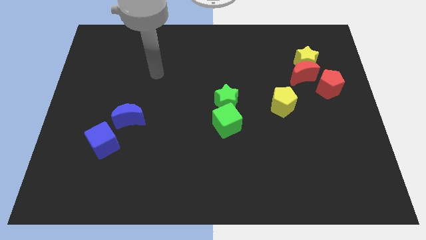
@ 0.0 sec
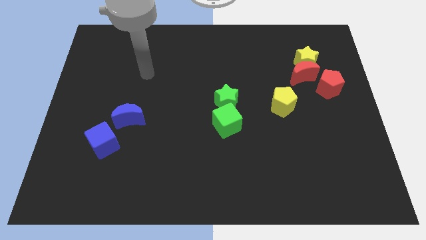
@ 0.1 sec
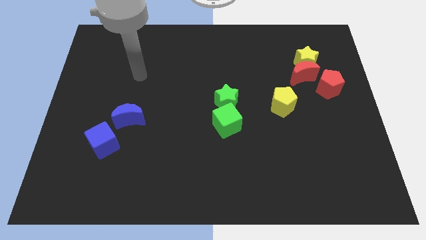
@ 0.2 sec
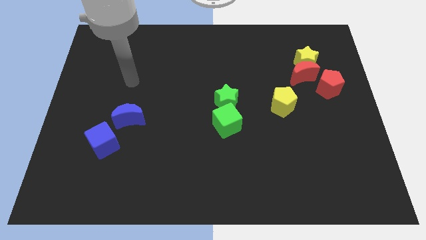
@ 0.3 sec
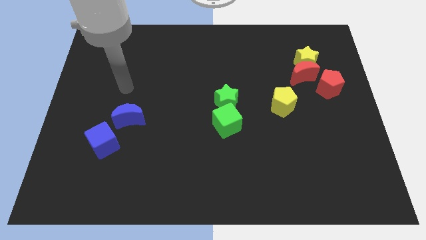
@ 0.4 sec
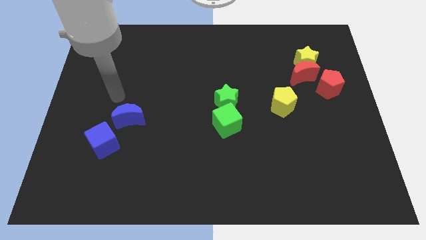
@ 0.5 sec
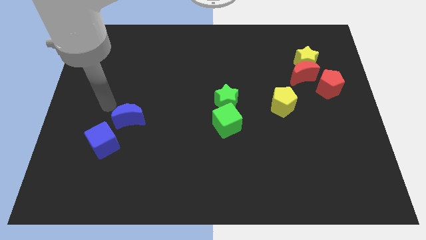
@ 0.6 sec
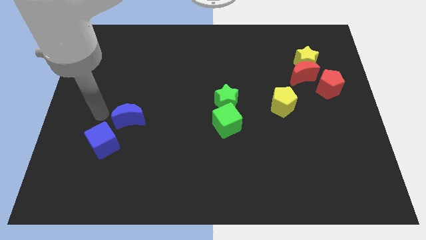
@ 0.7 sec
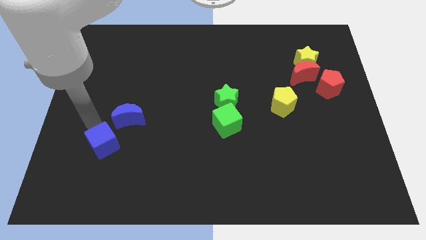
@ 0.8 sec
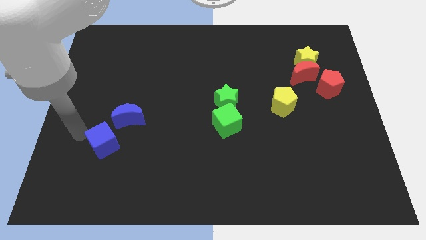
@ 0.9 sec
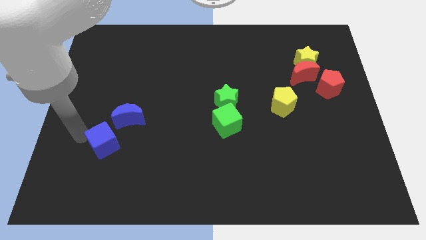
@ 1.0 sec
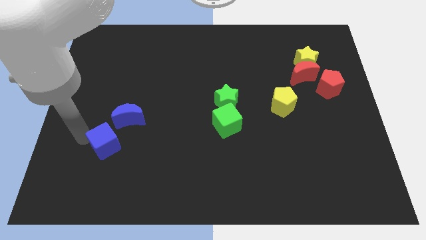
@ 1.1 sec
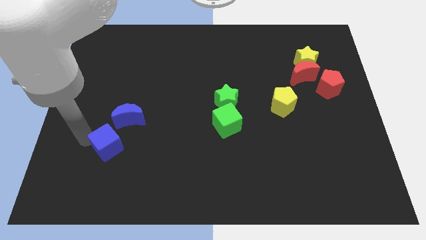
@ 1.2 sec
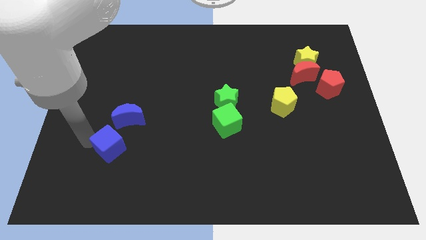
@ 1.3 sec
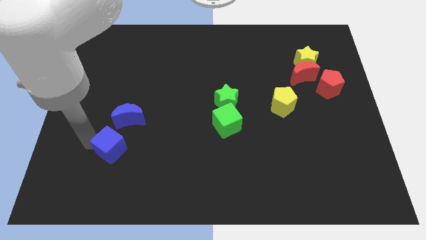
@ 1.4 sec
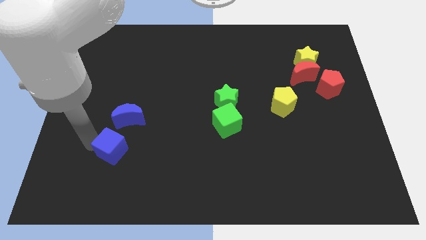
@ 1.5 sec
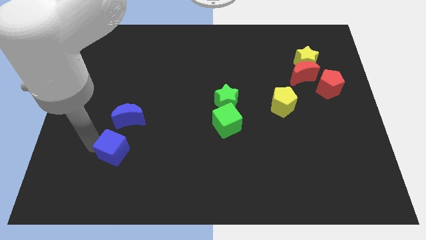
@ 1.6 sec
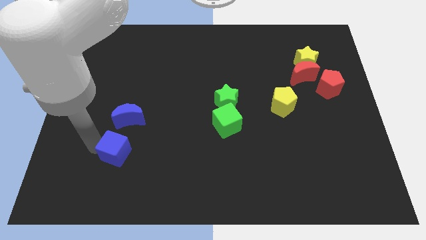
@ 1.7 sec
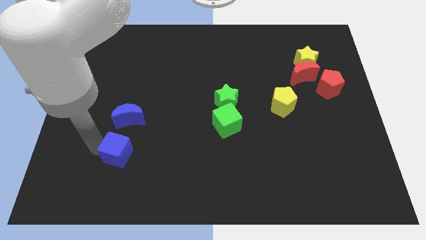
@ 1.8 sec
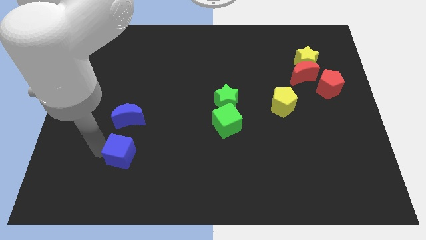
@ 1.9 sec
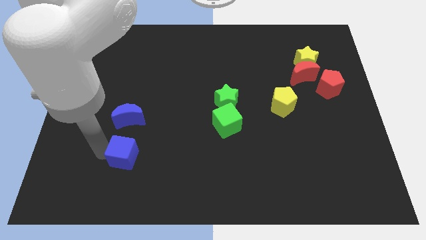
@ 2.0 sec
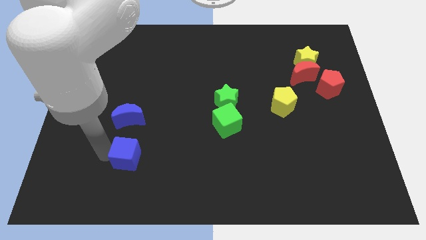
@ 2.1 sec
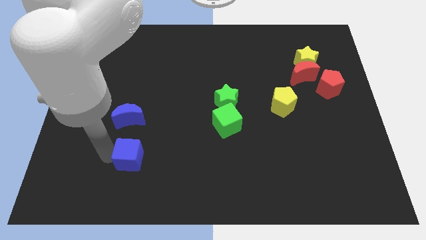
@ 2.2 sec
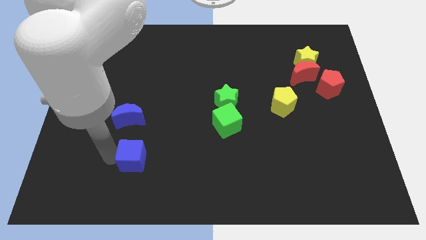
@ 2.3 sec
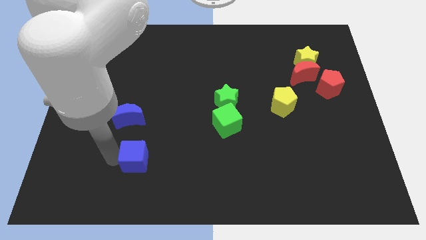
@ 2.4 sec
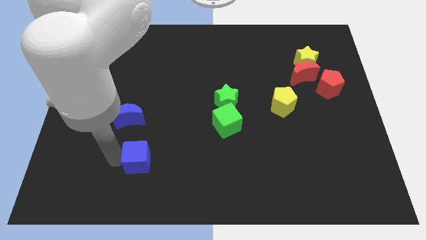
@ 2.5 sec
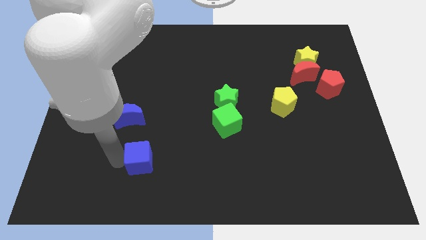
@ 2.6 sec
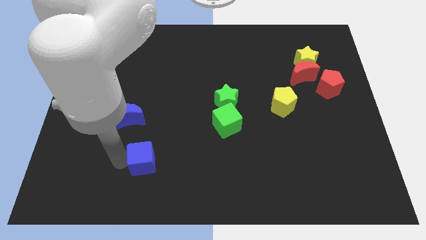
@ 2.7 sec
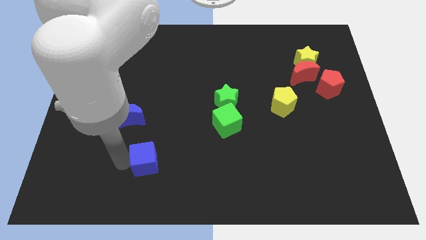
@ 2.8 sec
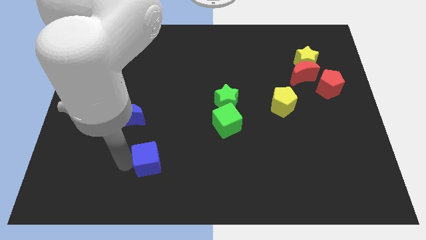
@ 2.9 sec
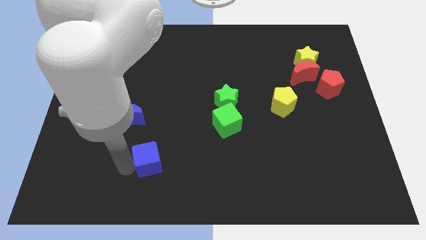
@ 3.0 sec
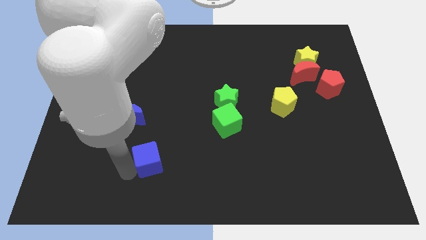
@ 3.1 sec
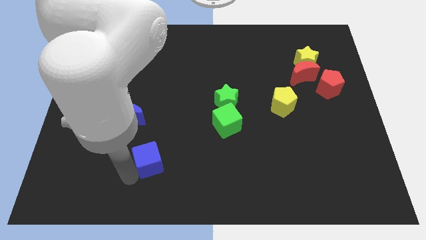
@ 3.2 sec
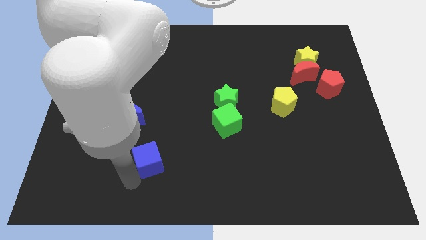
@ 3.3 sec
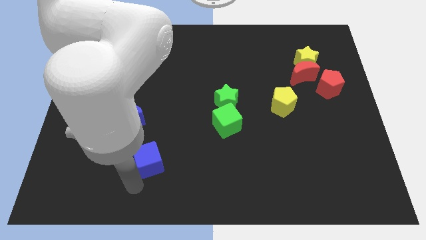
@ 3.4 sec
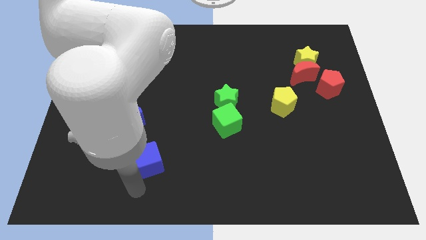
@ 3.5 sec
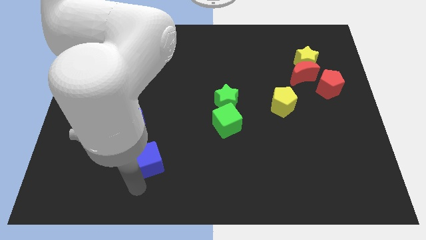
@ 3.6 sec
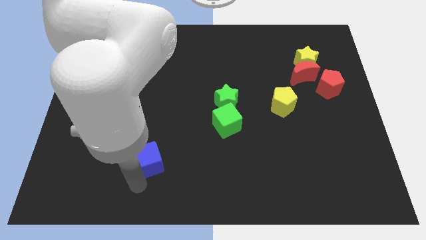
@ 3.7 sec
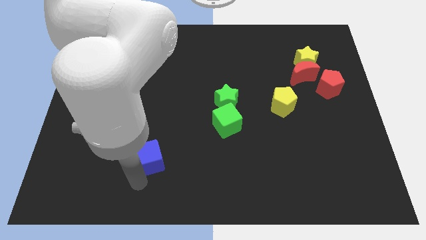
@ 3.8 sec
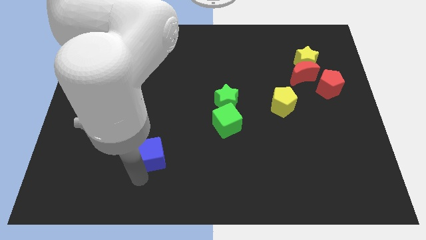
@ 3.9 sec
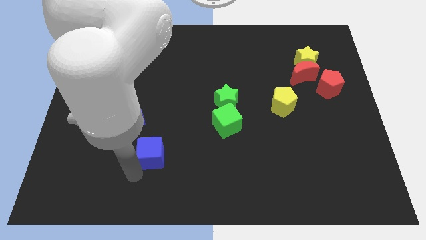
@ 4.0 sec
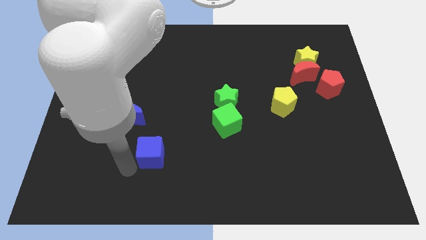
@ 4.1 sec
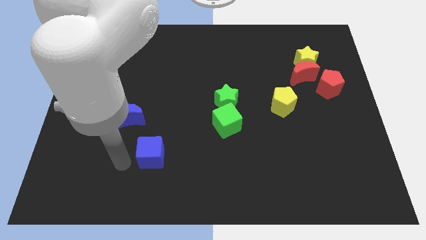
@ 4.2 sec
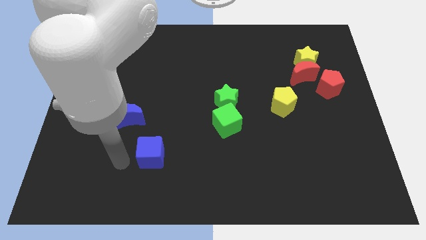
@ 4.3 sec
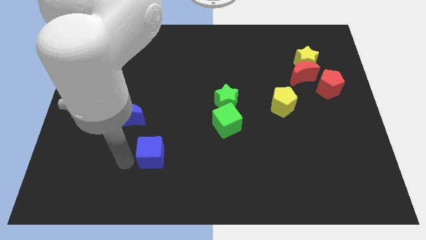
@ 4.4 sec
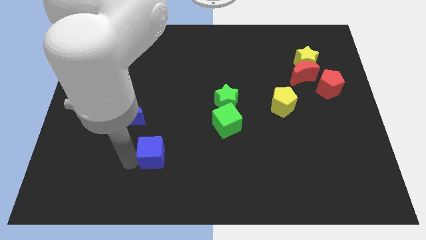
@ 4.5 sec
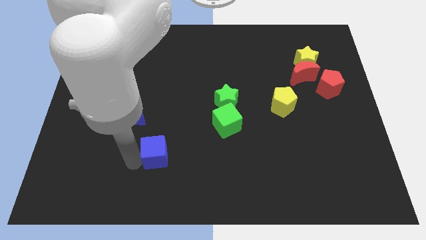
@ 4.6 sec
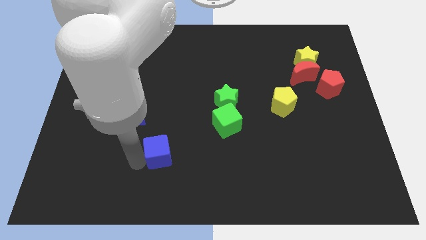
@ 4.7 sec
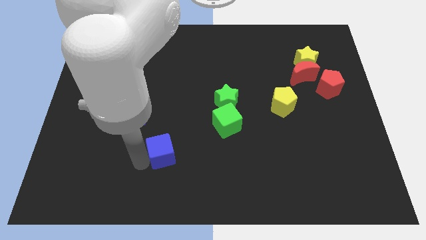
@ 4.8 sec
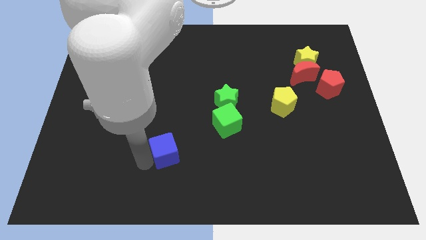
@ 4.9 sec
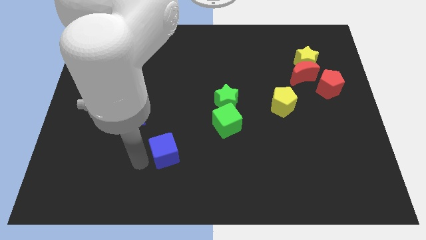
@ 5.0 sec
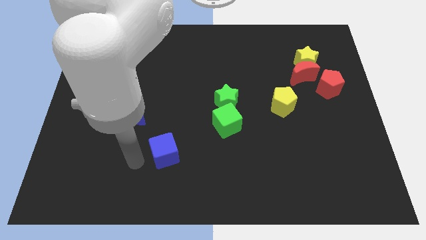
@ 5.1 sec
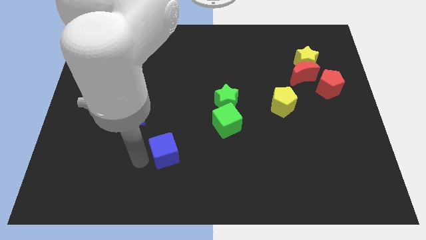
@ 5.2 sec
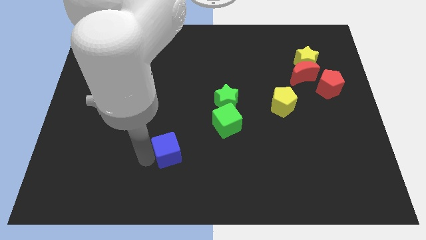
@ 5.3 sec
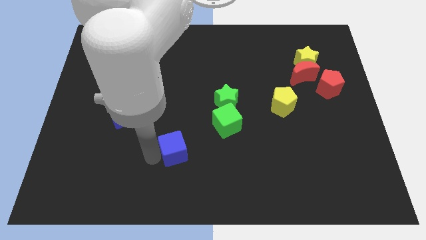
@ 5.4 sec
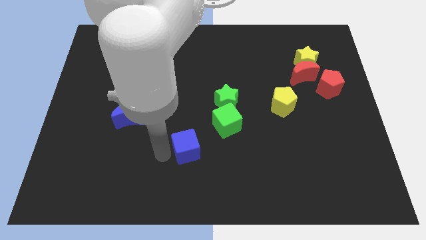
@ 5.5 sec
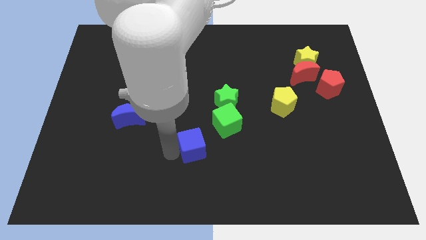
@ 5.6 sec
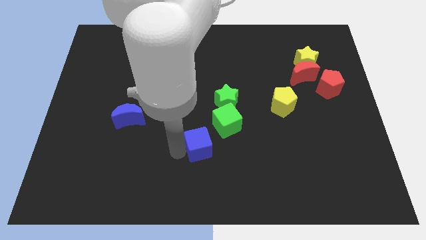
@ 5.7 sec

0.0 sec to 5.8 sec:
slide the blue cube to the right

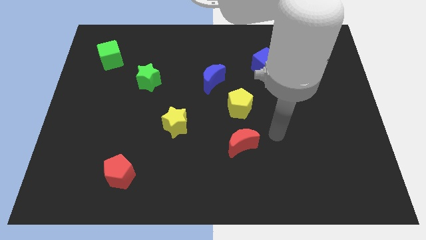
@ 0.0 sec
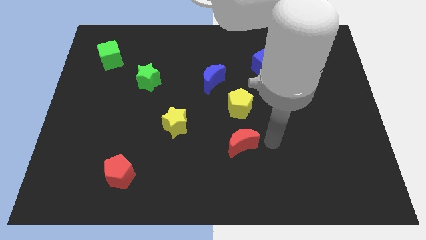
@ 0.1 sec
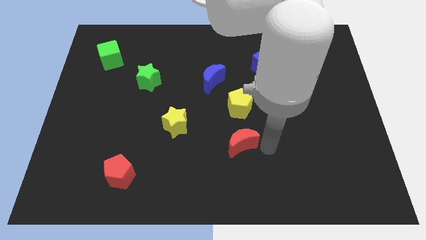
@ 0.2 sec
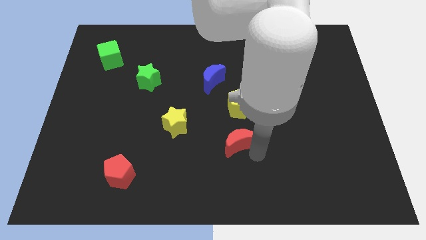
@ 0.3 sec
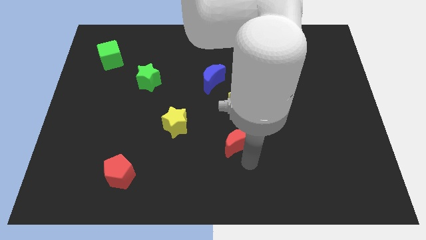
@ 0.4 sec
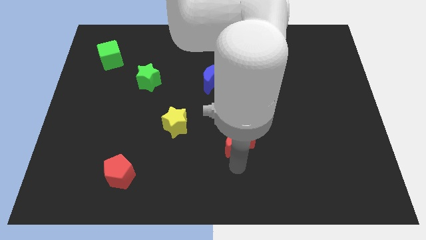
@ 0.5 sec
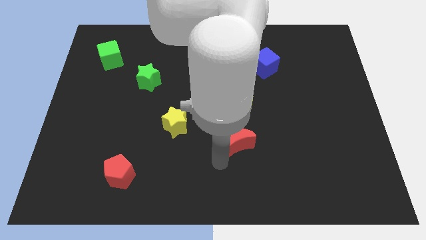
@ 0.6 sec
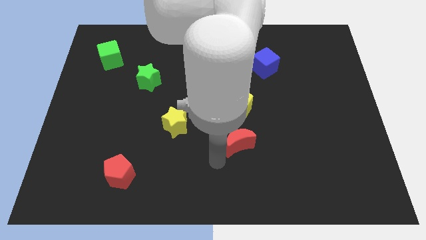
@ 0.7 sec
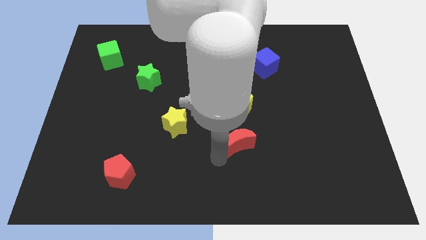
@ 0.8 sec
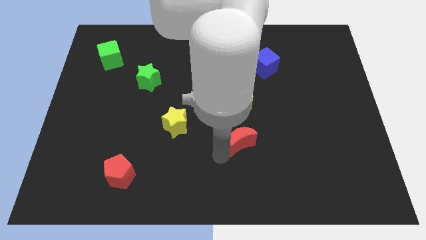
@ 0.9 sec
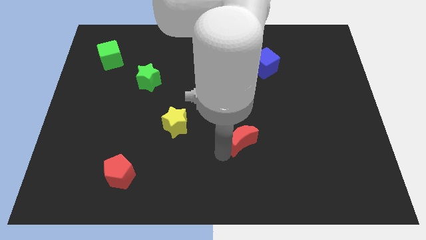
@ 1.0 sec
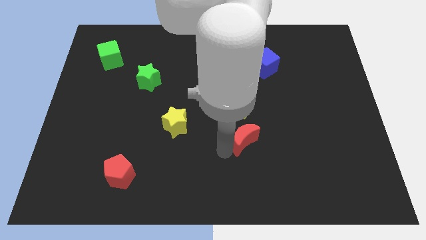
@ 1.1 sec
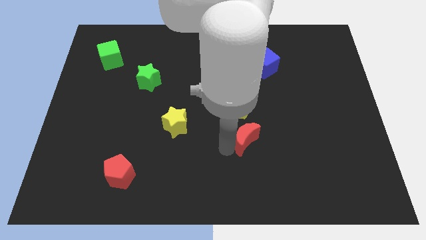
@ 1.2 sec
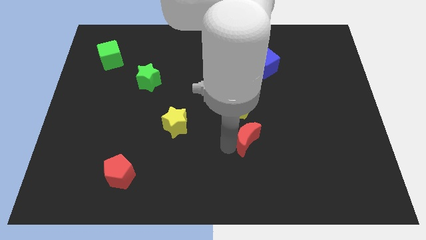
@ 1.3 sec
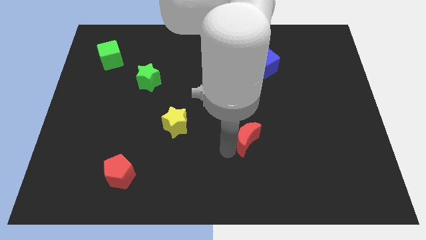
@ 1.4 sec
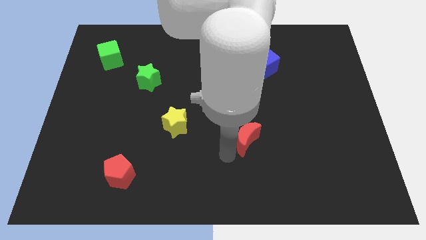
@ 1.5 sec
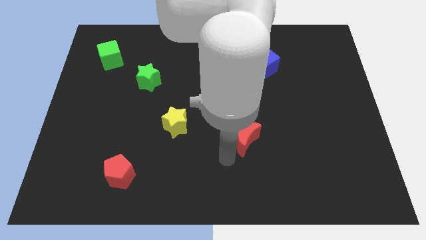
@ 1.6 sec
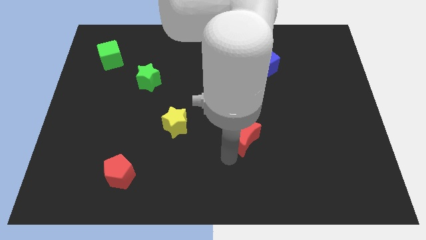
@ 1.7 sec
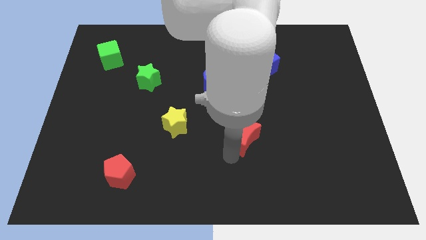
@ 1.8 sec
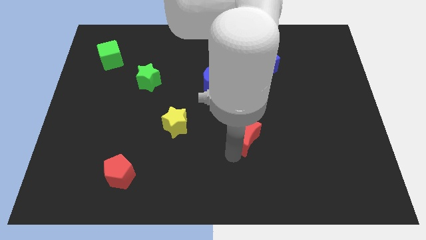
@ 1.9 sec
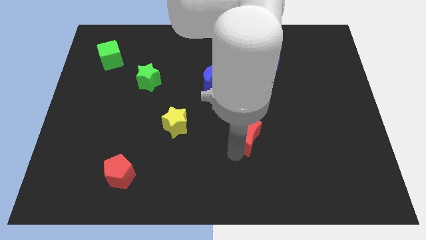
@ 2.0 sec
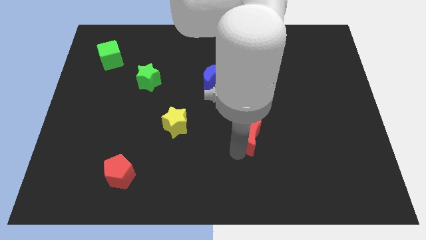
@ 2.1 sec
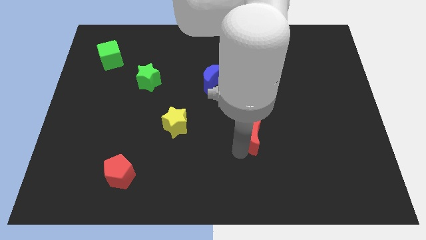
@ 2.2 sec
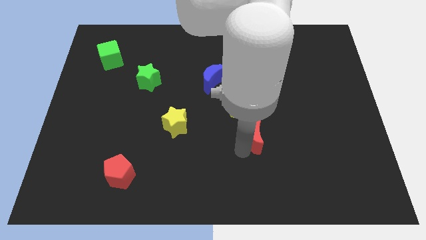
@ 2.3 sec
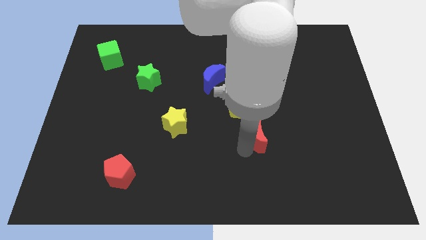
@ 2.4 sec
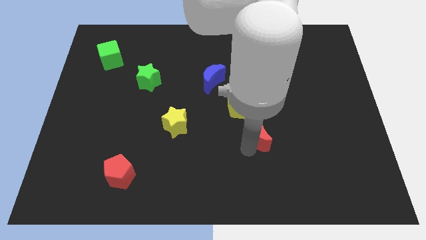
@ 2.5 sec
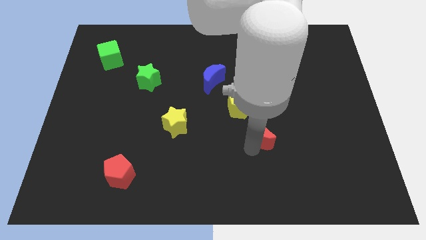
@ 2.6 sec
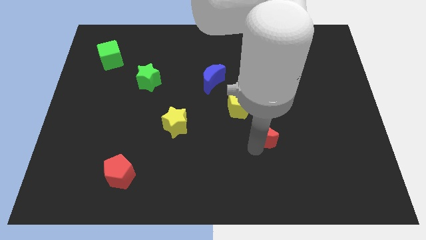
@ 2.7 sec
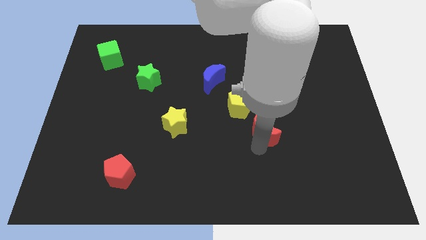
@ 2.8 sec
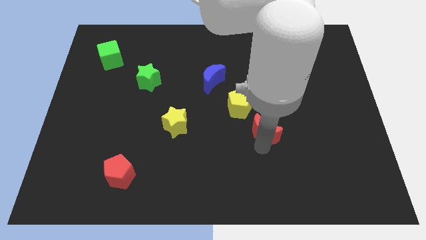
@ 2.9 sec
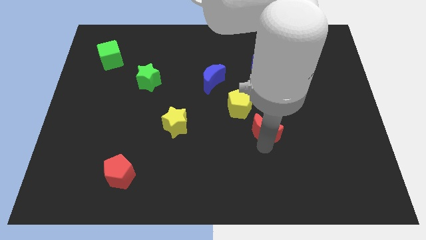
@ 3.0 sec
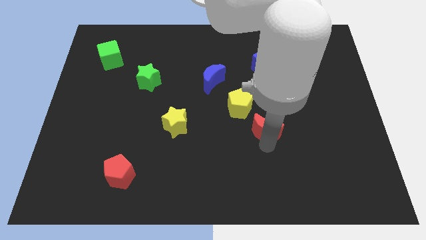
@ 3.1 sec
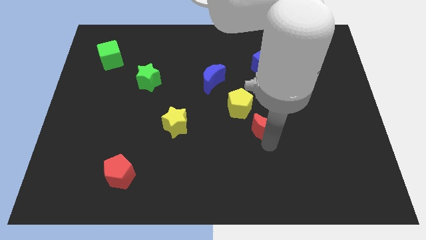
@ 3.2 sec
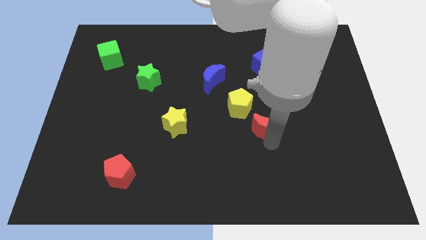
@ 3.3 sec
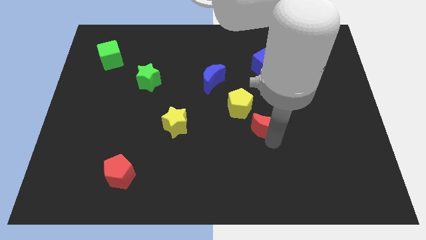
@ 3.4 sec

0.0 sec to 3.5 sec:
slightly push the red moon diagonally up and right
